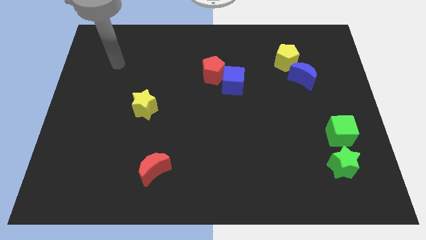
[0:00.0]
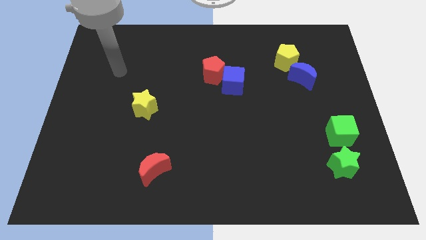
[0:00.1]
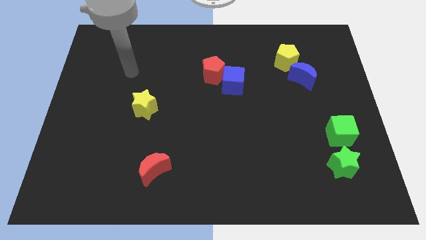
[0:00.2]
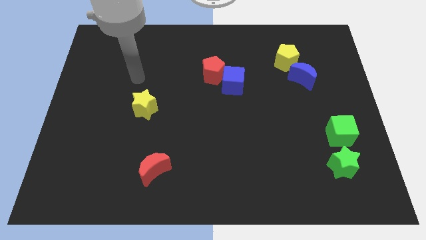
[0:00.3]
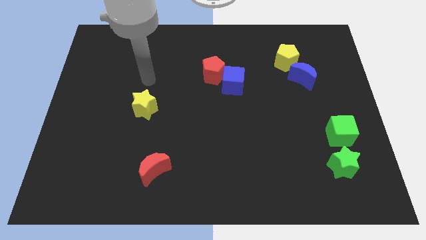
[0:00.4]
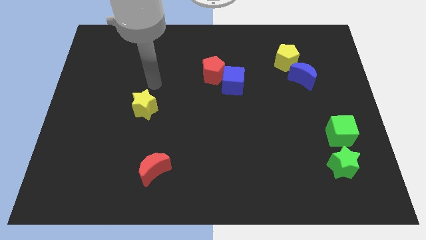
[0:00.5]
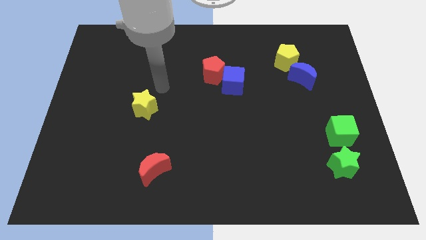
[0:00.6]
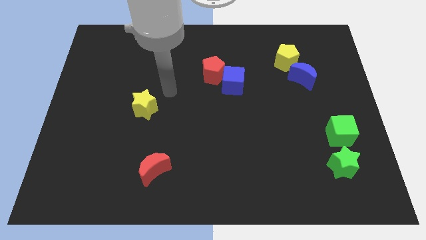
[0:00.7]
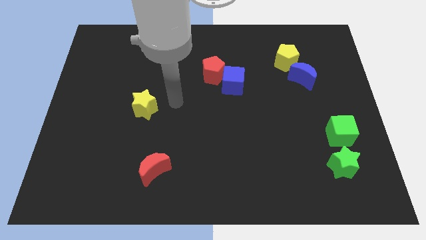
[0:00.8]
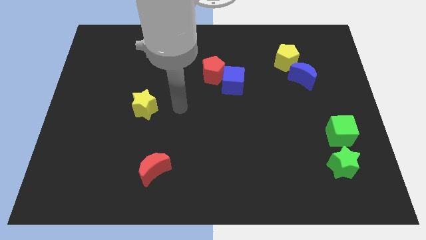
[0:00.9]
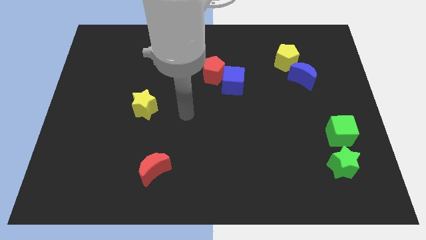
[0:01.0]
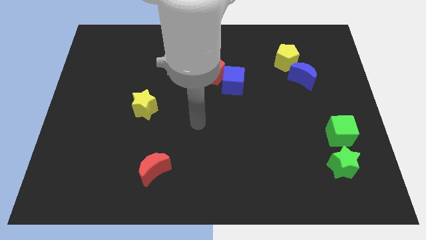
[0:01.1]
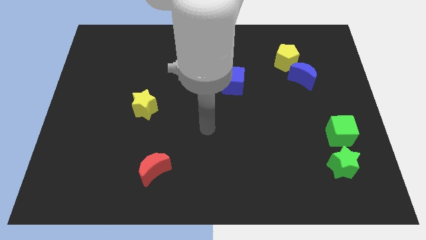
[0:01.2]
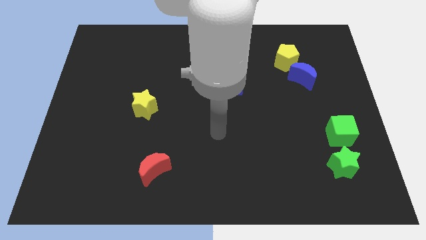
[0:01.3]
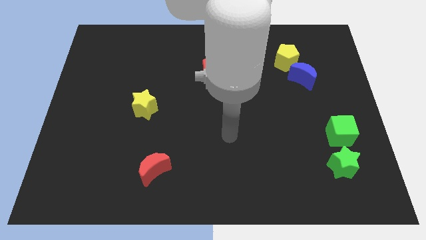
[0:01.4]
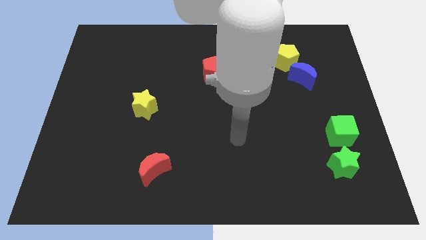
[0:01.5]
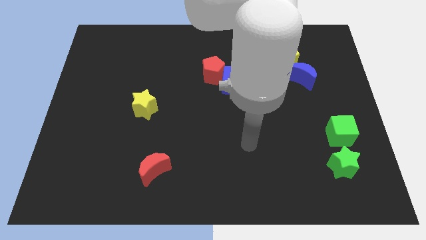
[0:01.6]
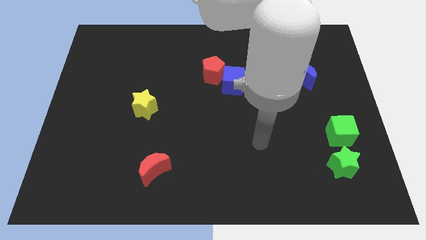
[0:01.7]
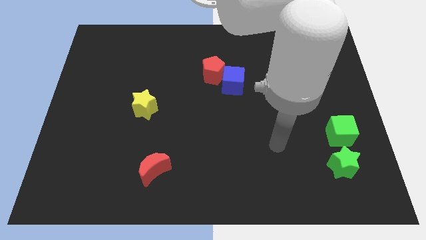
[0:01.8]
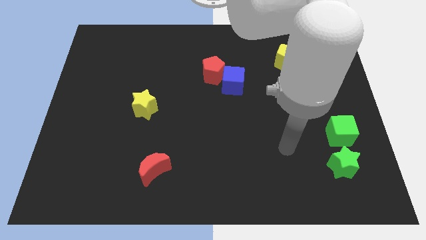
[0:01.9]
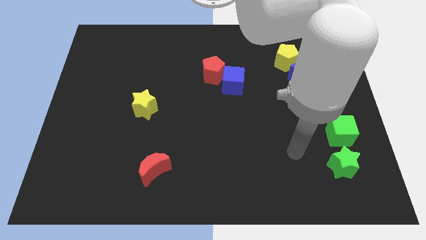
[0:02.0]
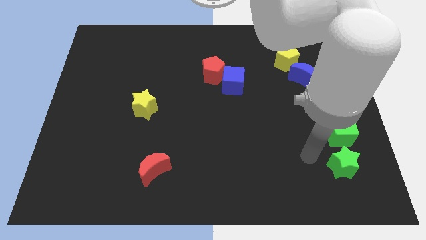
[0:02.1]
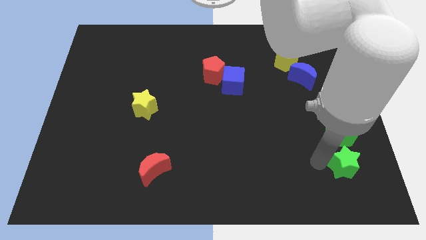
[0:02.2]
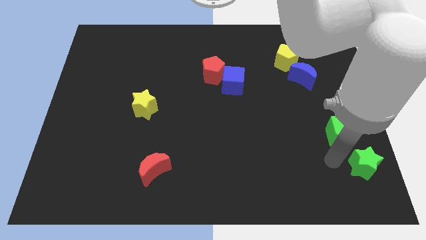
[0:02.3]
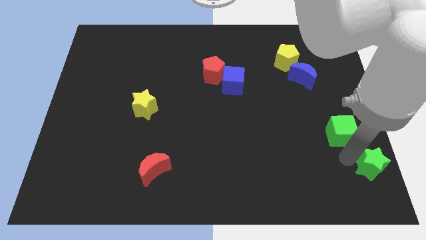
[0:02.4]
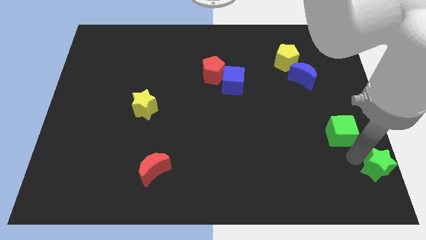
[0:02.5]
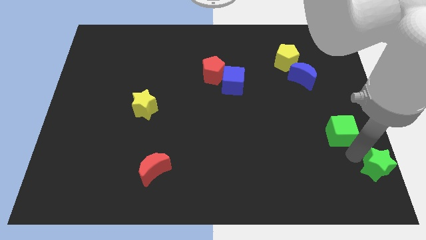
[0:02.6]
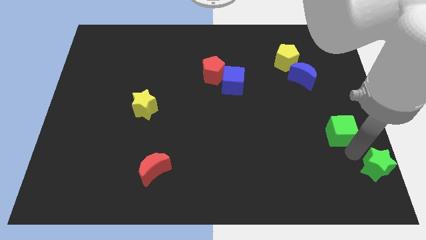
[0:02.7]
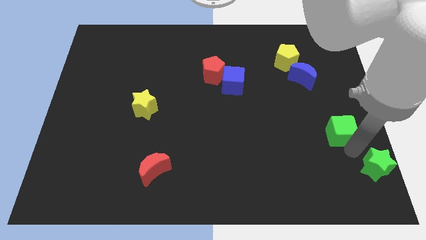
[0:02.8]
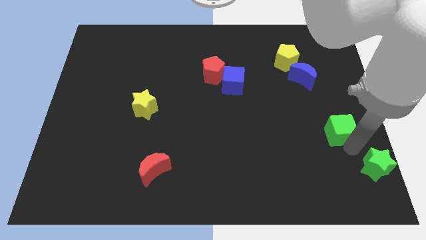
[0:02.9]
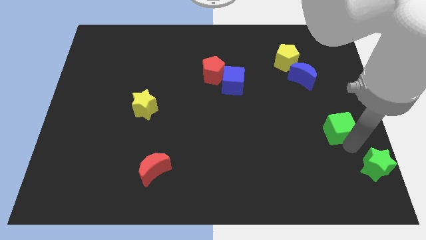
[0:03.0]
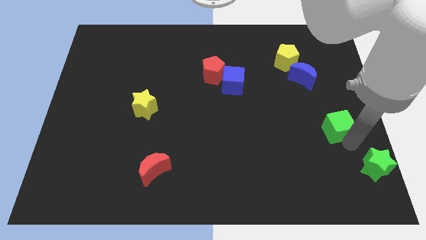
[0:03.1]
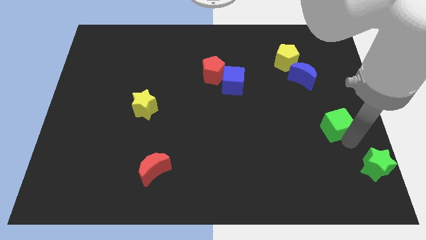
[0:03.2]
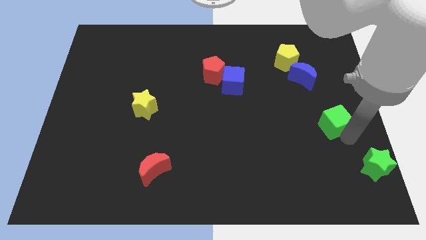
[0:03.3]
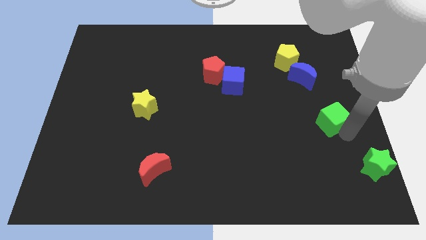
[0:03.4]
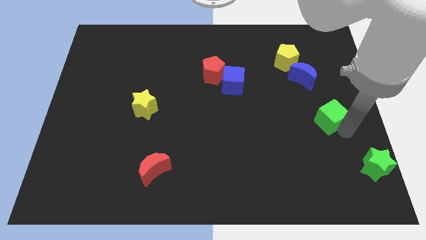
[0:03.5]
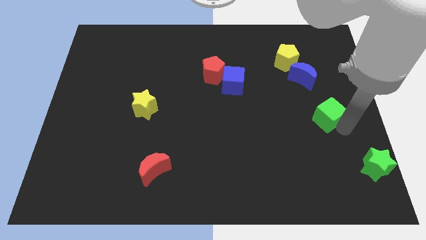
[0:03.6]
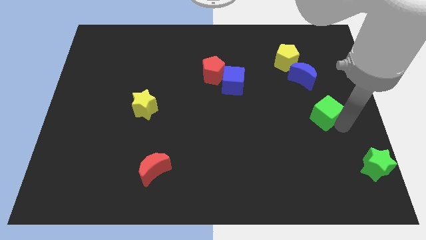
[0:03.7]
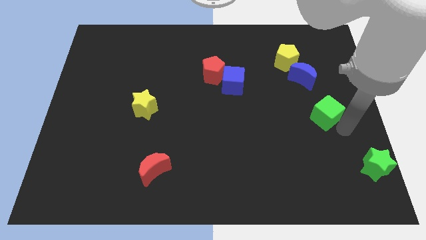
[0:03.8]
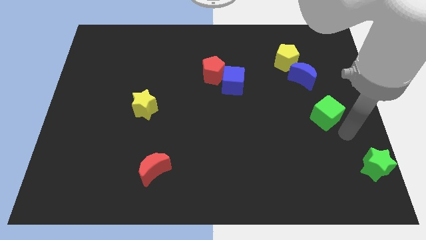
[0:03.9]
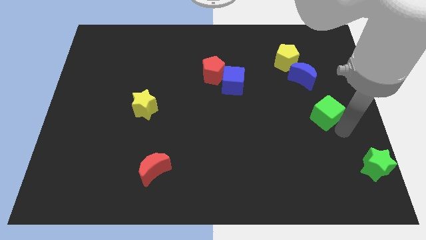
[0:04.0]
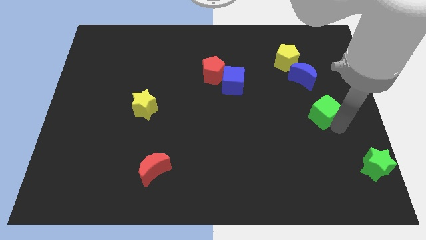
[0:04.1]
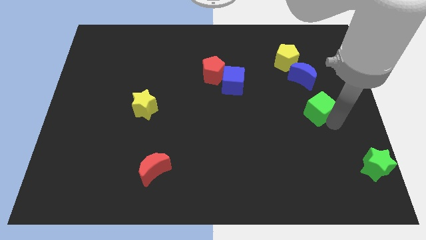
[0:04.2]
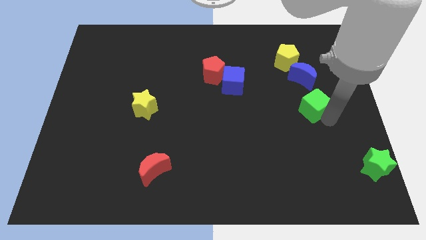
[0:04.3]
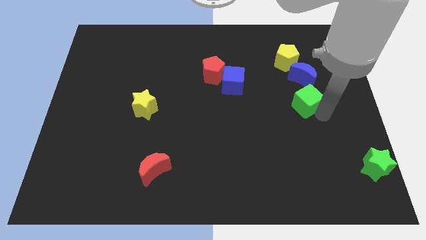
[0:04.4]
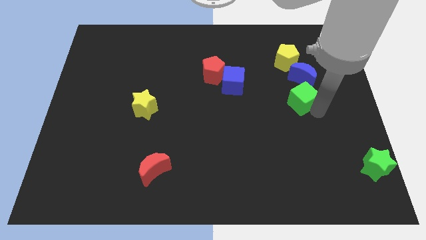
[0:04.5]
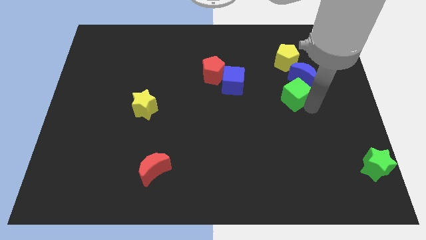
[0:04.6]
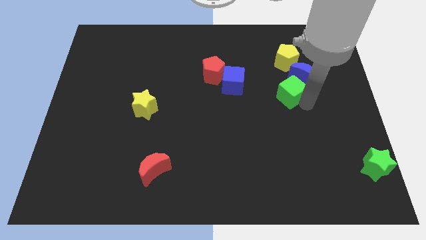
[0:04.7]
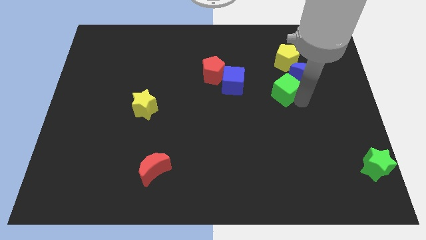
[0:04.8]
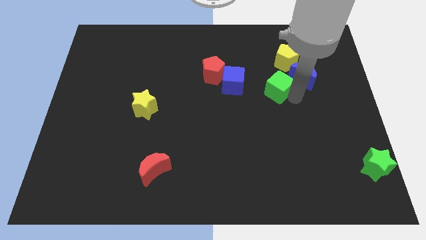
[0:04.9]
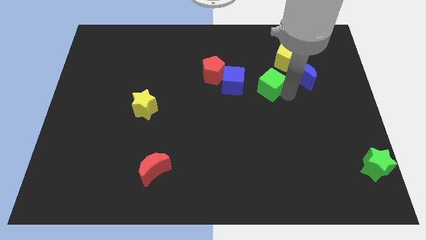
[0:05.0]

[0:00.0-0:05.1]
move the green cube up and left

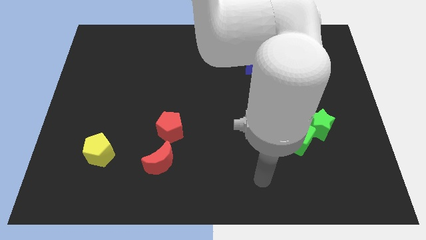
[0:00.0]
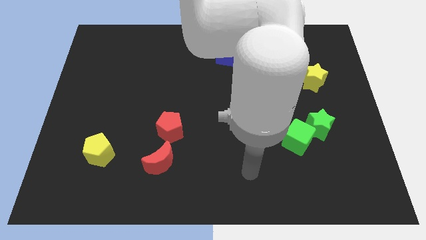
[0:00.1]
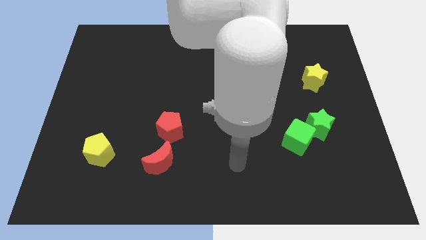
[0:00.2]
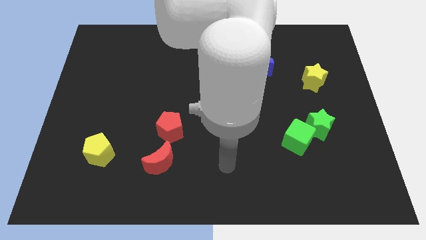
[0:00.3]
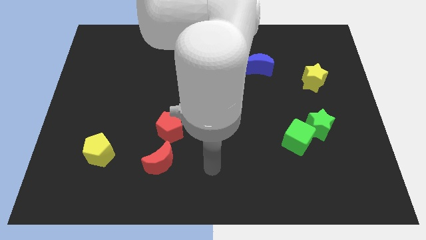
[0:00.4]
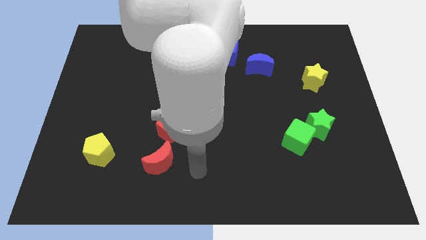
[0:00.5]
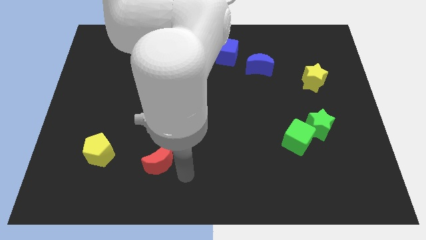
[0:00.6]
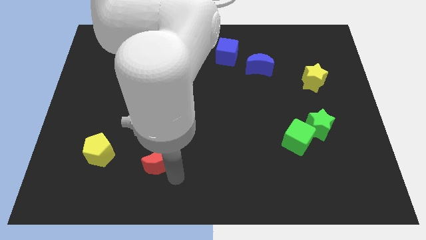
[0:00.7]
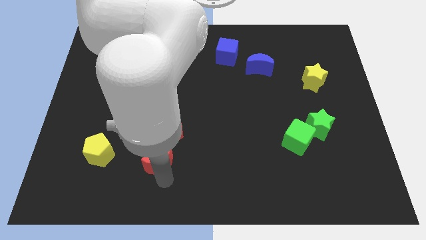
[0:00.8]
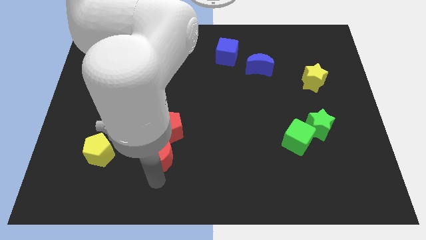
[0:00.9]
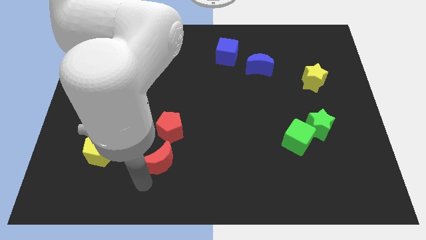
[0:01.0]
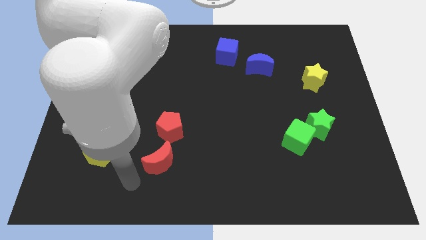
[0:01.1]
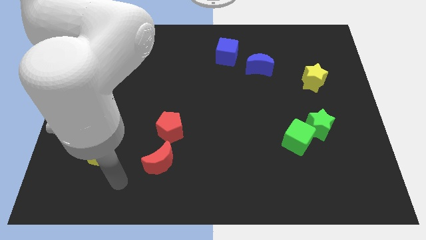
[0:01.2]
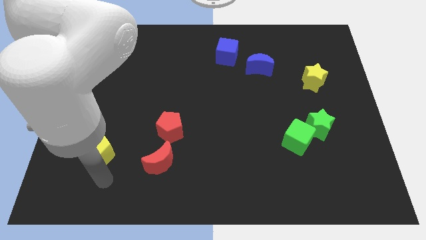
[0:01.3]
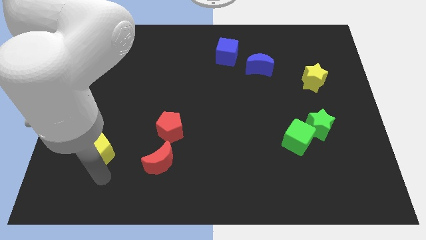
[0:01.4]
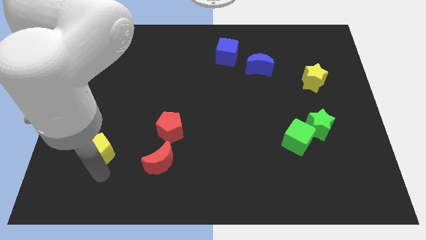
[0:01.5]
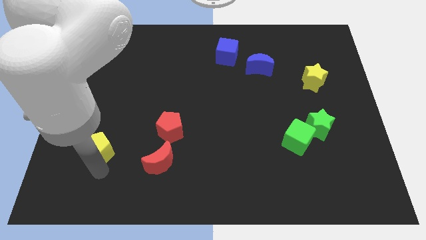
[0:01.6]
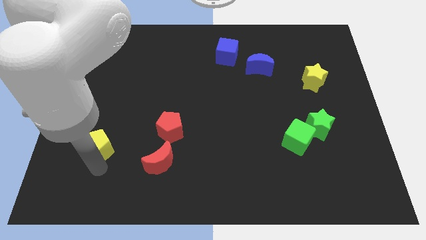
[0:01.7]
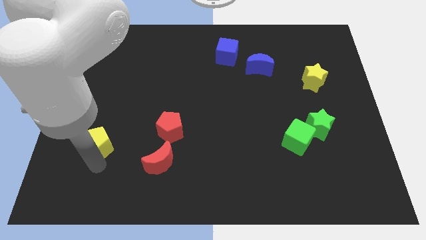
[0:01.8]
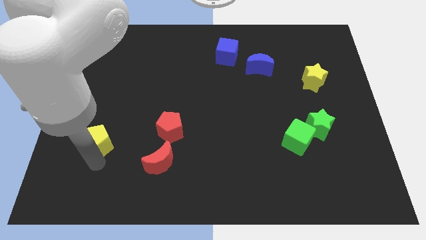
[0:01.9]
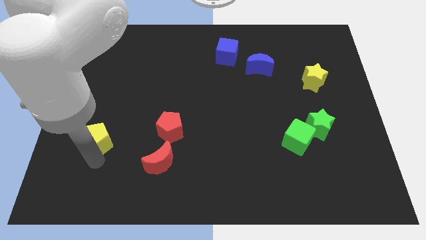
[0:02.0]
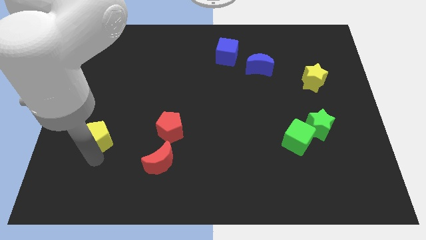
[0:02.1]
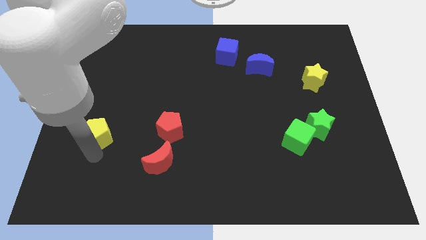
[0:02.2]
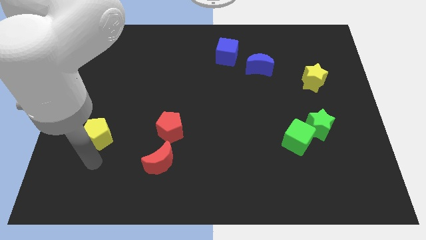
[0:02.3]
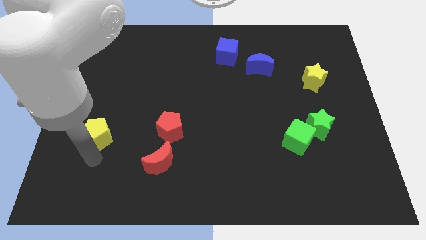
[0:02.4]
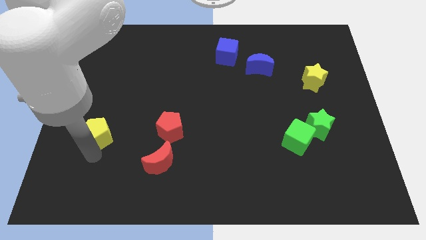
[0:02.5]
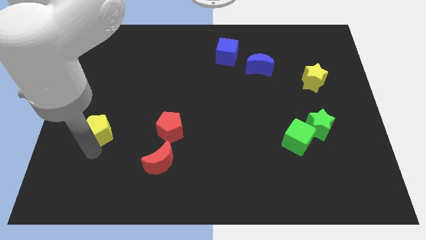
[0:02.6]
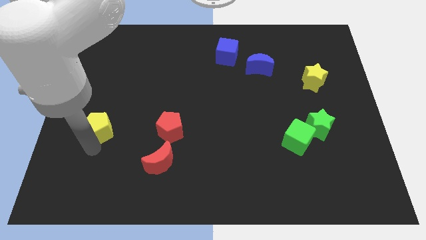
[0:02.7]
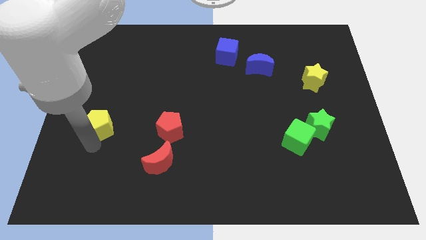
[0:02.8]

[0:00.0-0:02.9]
slide the yellow pentagon a bit upwards

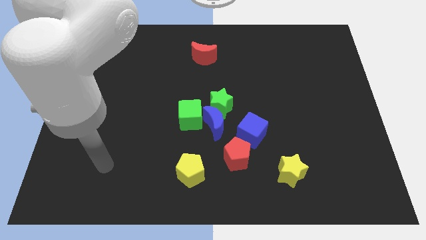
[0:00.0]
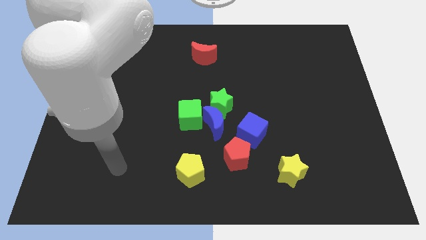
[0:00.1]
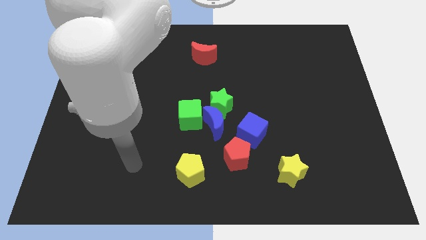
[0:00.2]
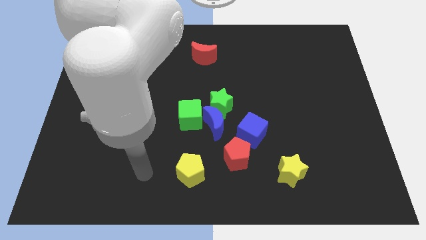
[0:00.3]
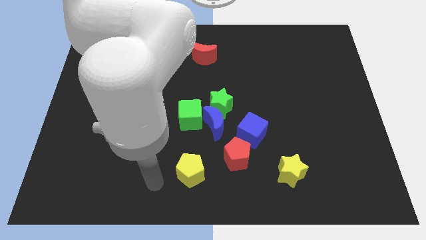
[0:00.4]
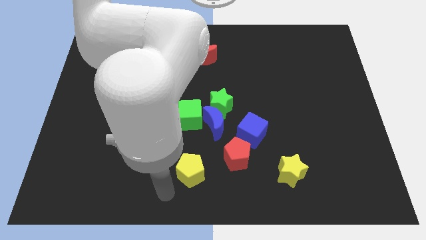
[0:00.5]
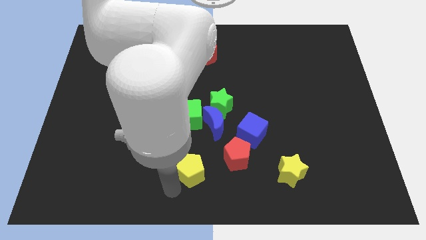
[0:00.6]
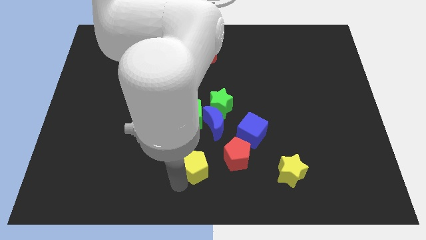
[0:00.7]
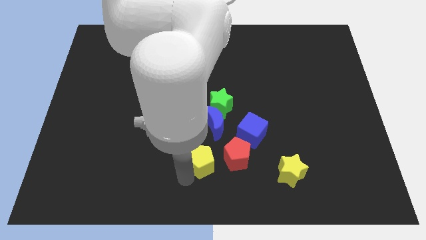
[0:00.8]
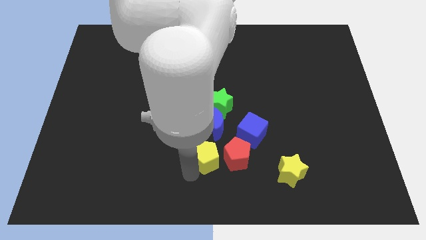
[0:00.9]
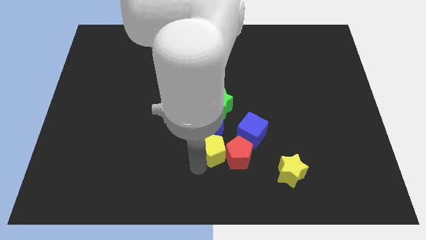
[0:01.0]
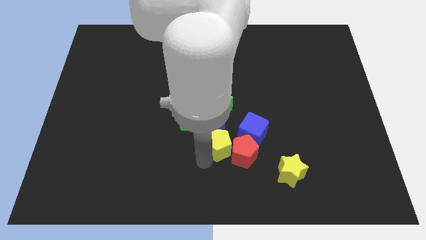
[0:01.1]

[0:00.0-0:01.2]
slide the yellow pentagon a bit upwards and to the right
